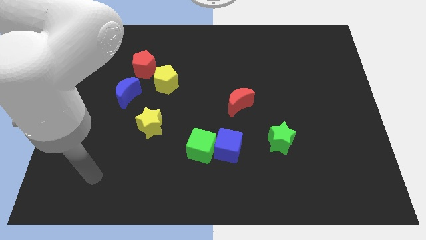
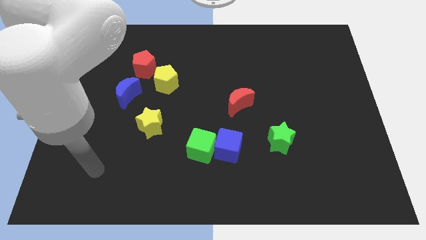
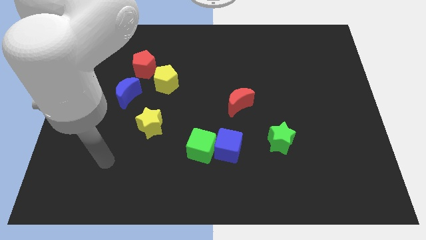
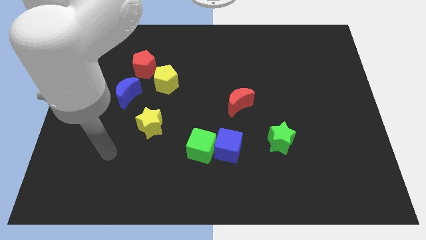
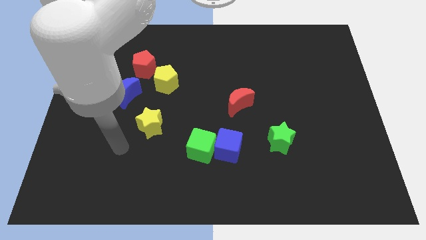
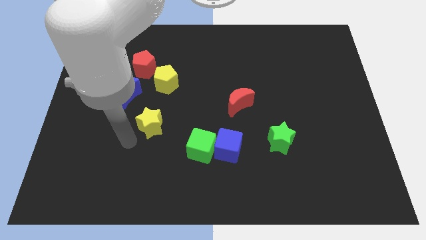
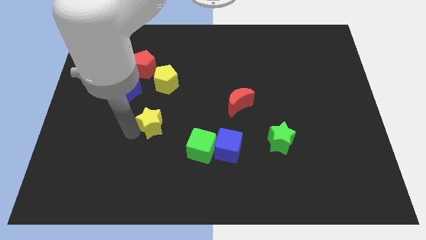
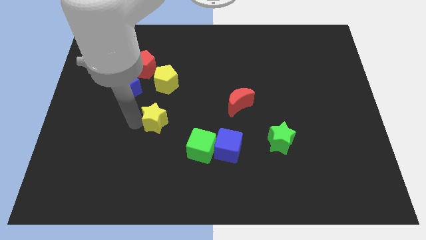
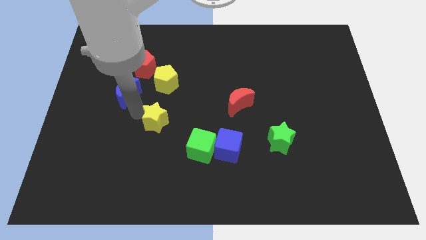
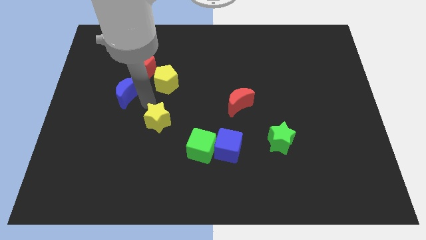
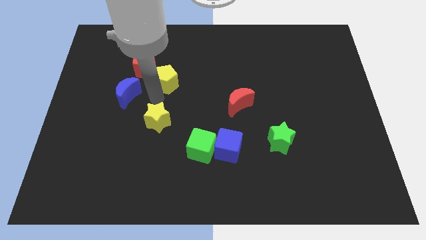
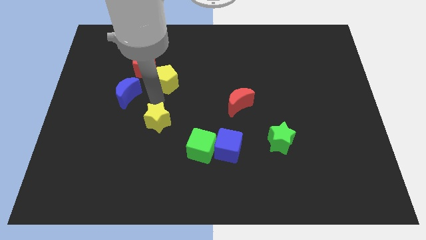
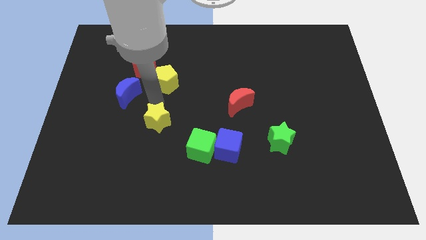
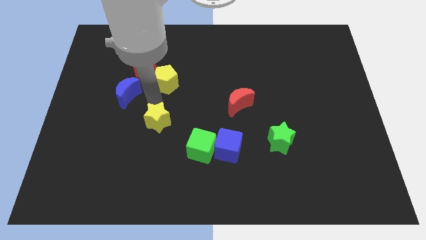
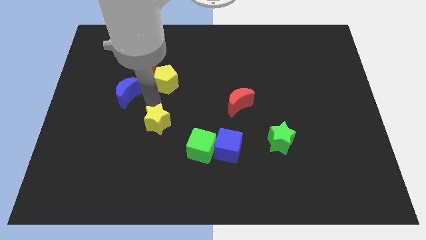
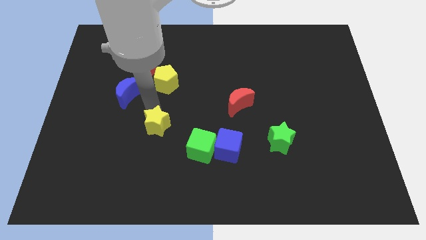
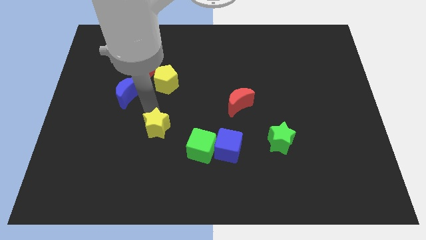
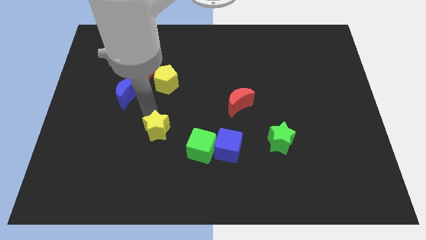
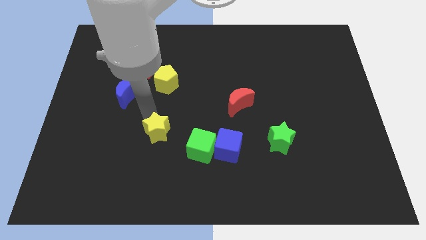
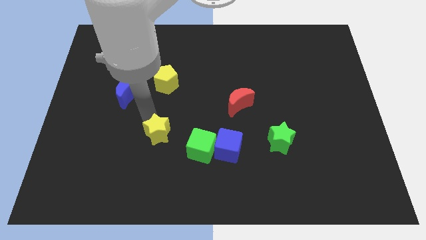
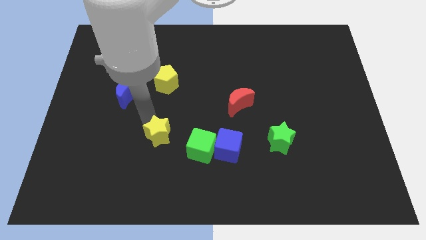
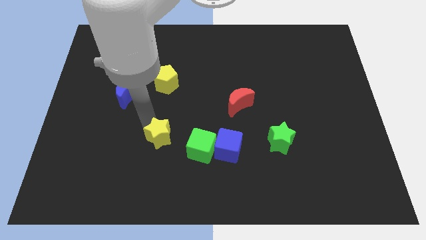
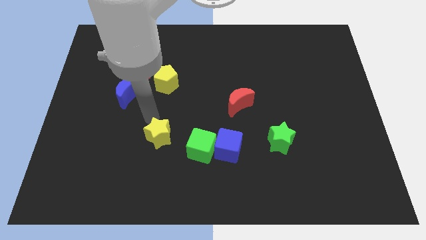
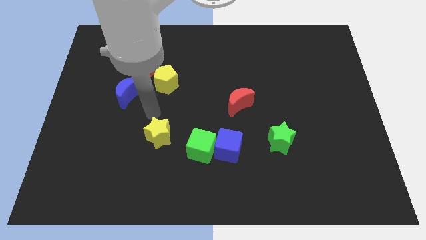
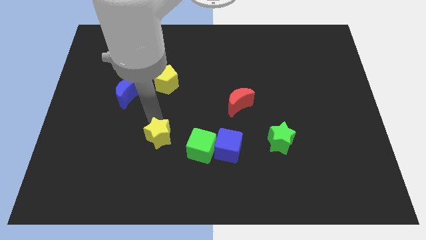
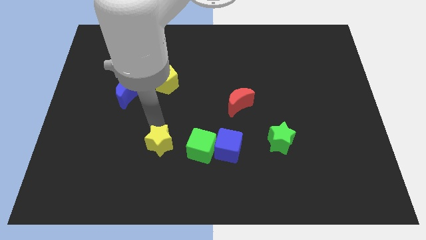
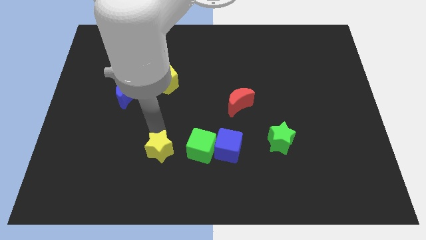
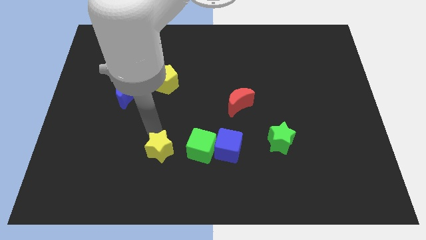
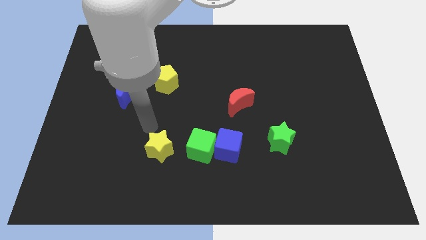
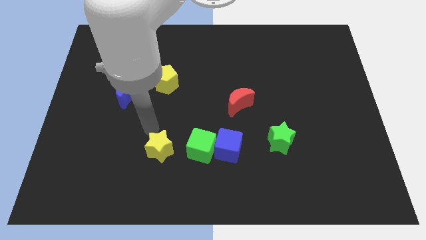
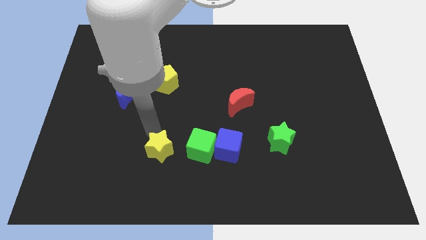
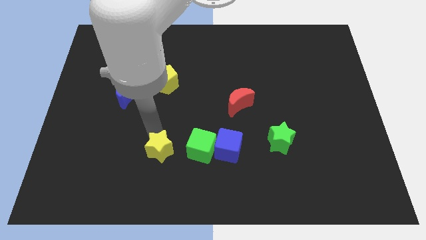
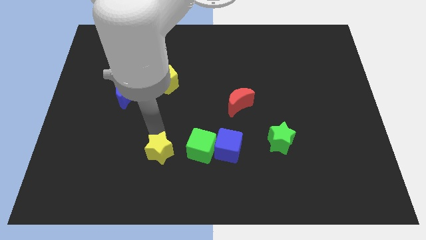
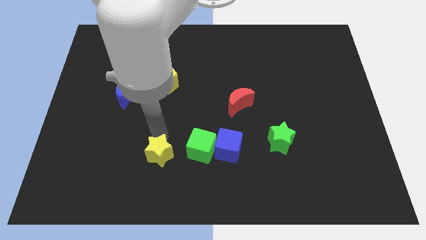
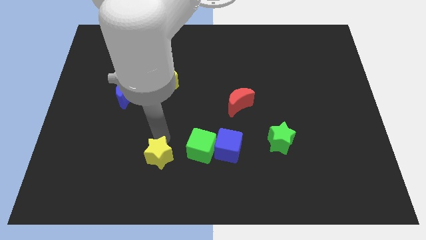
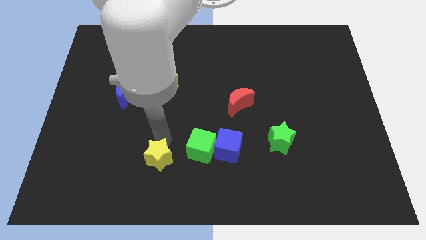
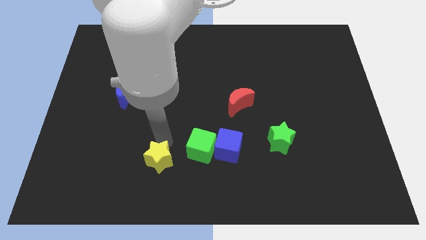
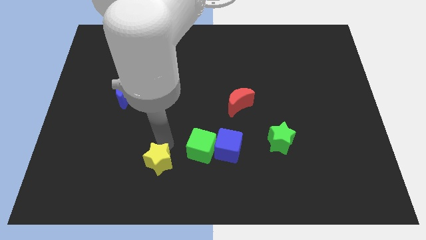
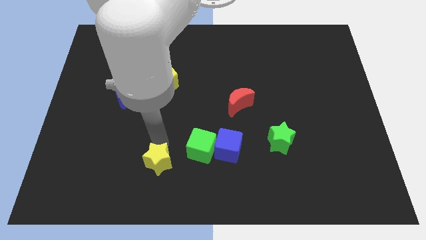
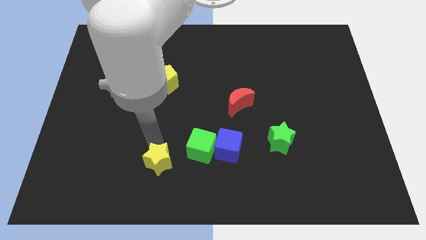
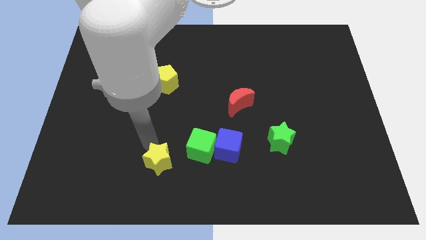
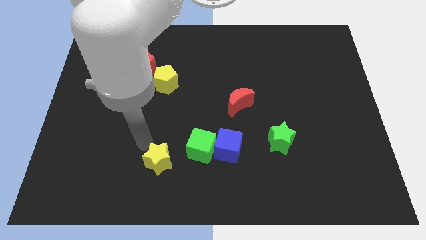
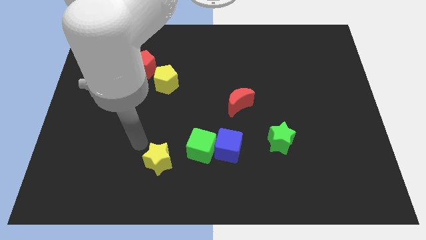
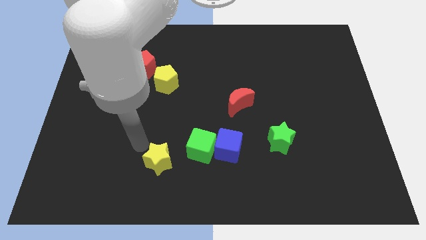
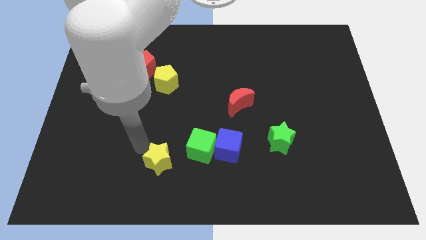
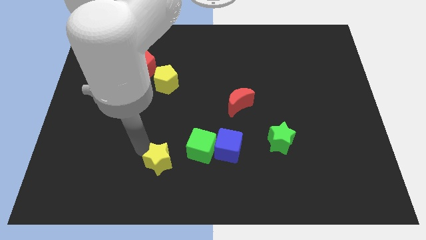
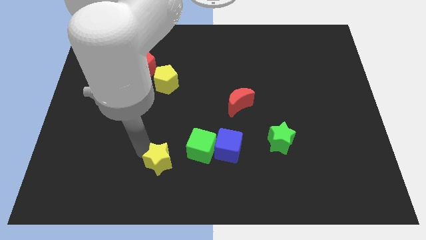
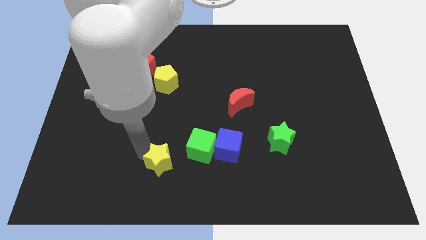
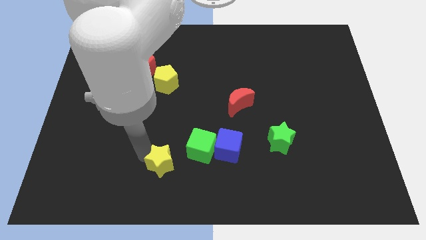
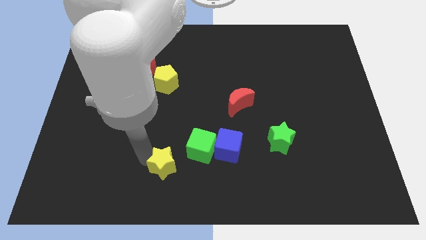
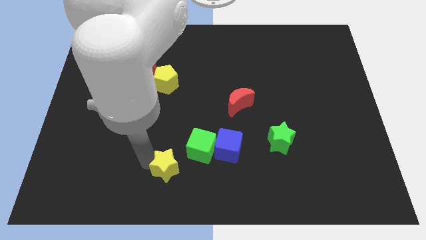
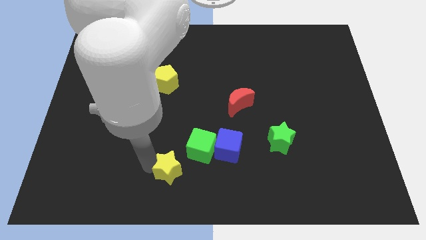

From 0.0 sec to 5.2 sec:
slide the yellow star to the bottom

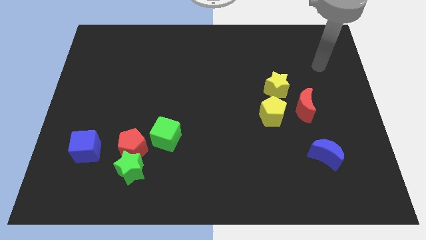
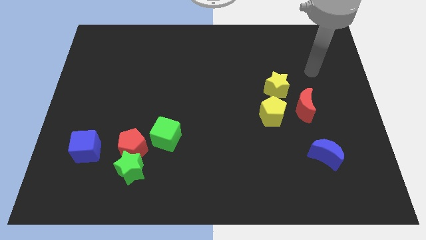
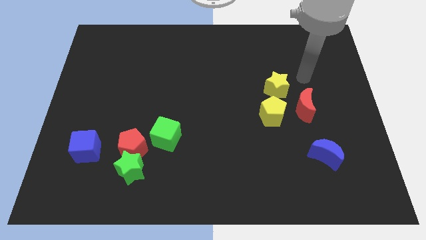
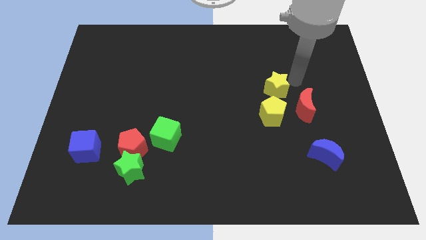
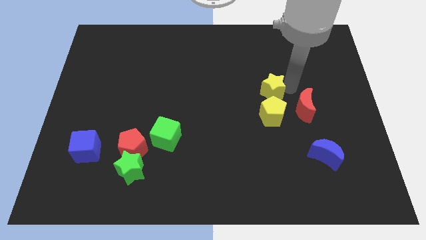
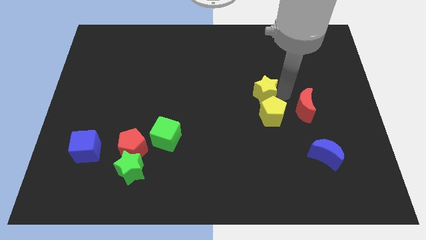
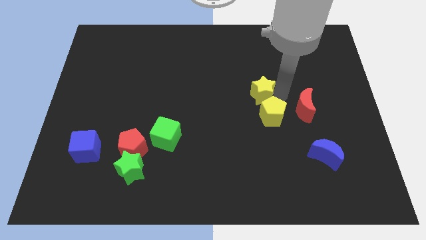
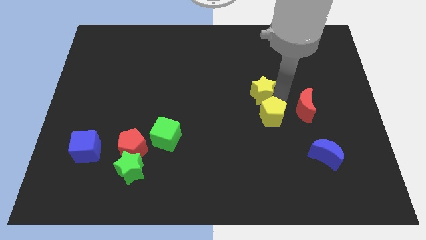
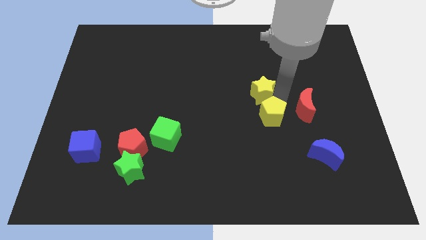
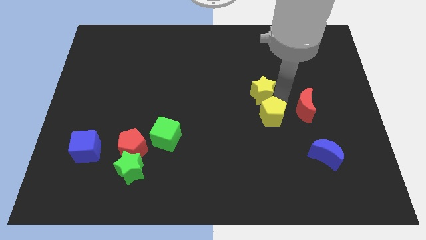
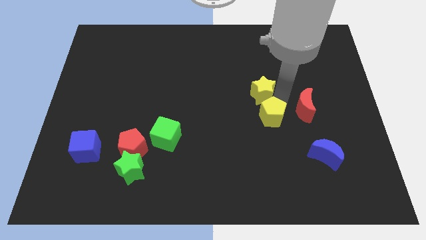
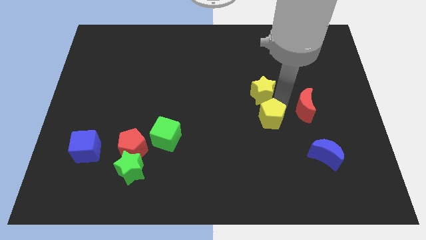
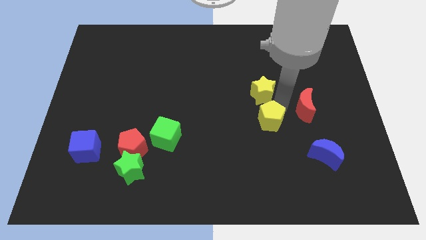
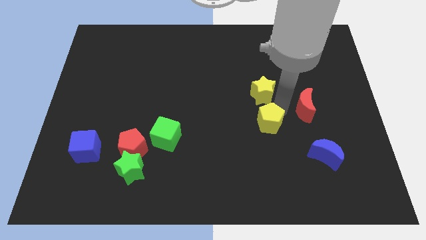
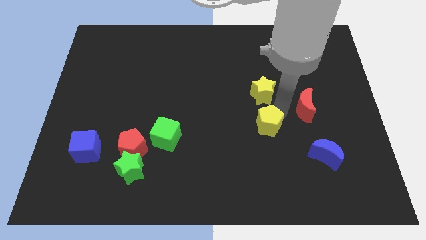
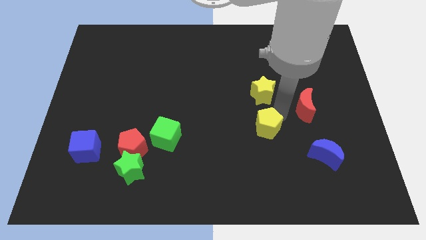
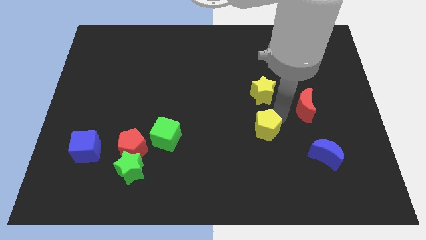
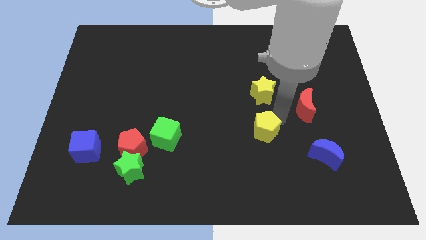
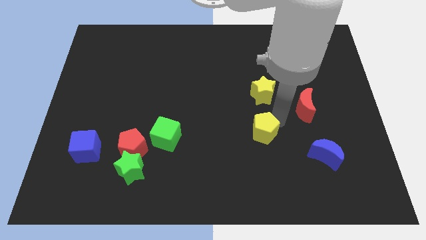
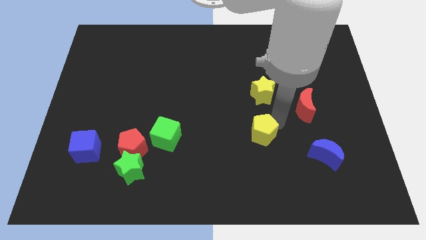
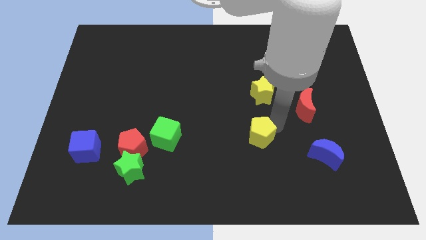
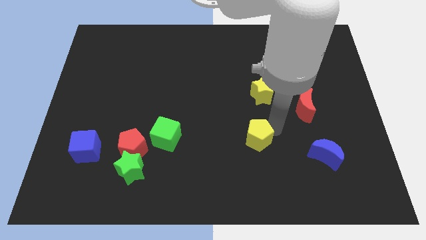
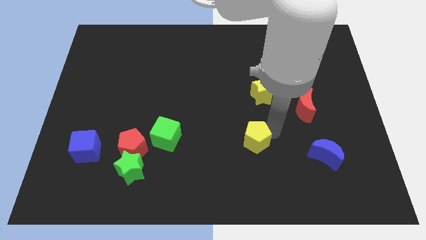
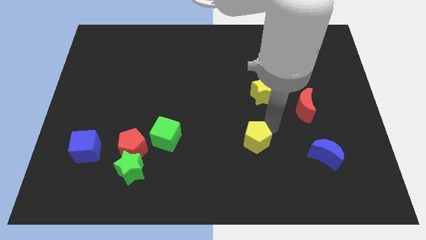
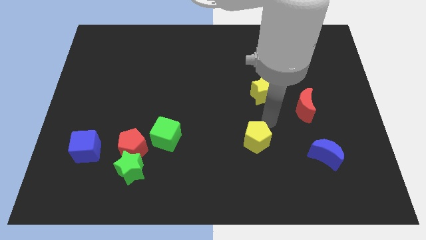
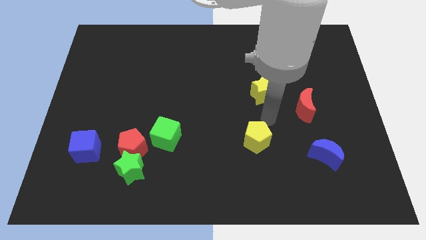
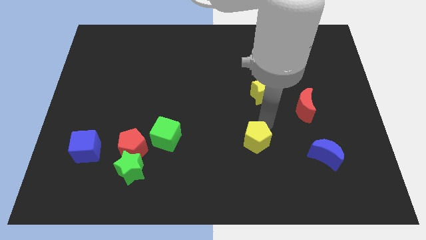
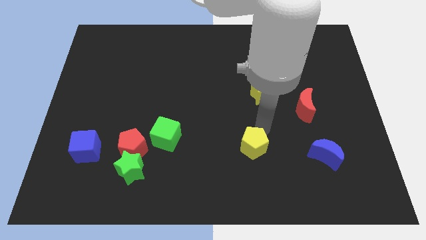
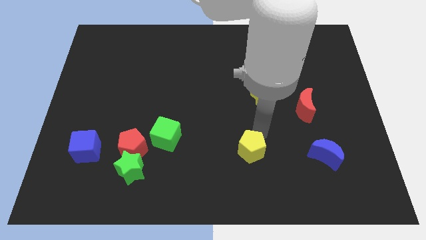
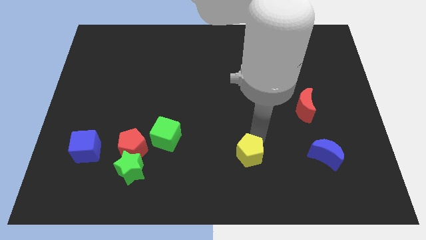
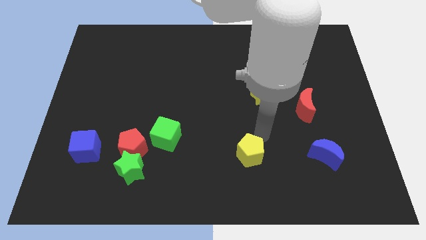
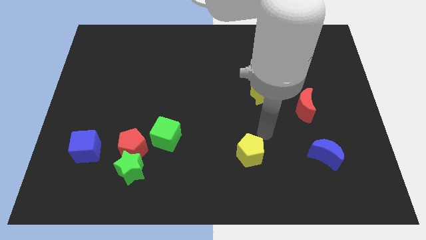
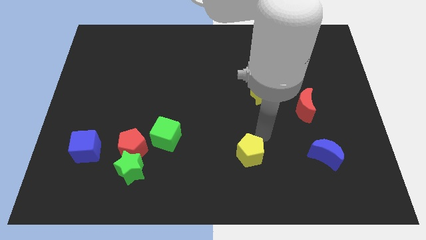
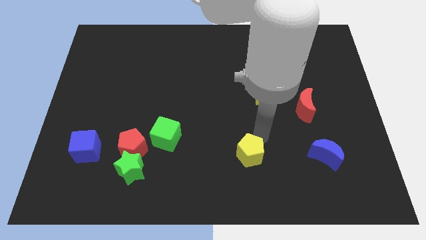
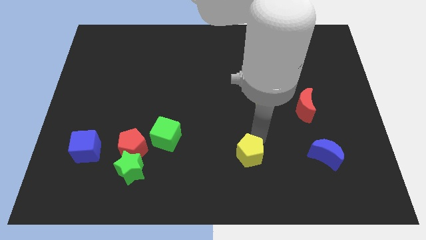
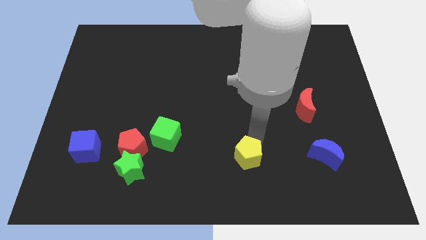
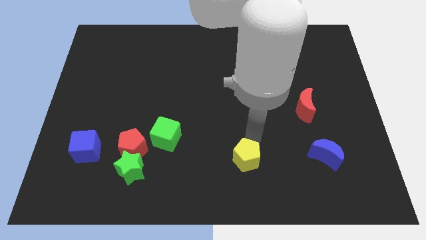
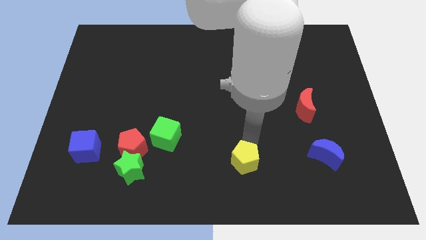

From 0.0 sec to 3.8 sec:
put the yellow pentagon to the bottom
